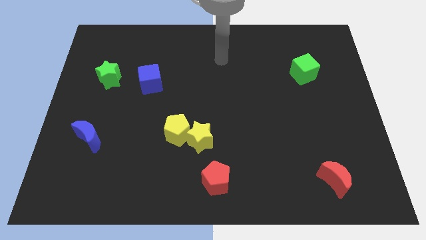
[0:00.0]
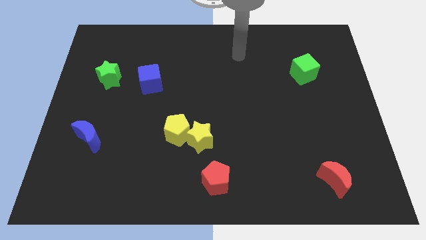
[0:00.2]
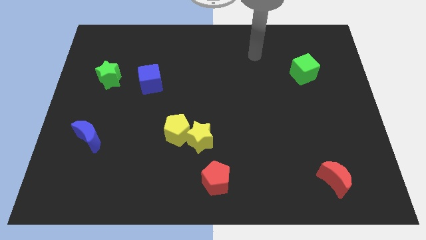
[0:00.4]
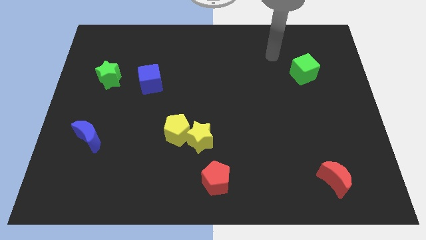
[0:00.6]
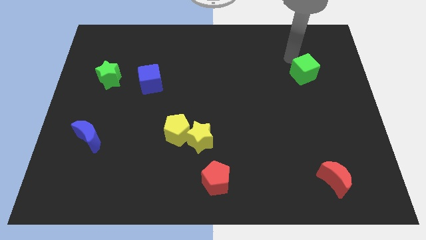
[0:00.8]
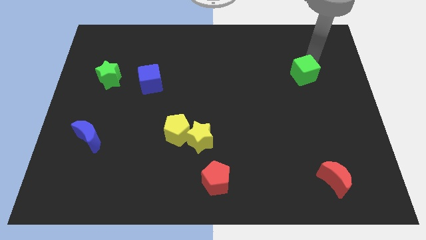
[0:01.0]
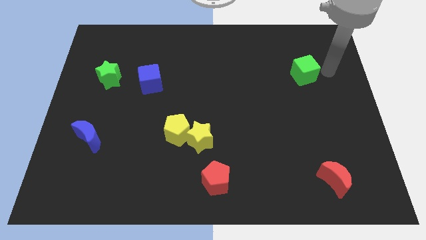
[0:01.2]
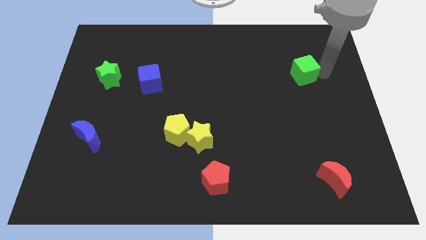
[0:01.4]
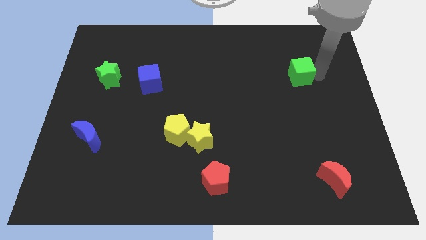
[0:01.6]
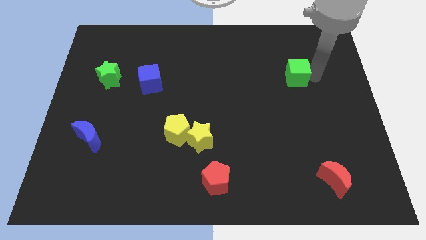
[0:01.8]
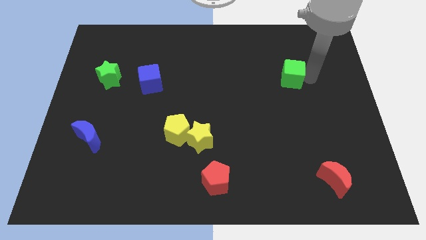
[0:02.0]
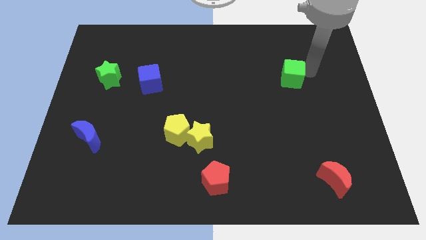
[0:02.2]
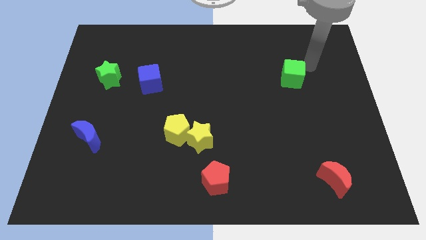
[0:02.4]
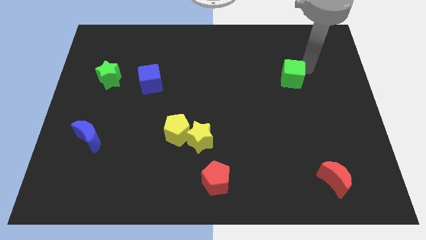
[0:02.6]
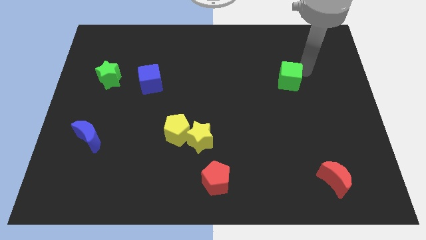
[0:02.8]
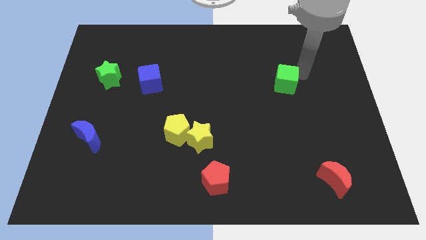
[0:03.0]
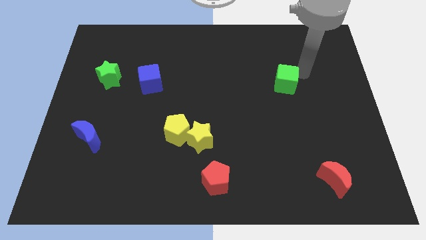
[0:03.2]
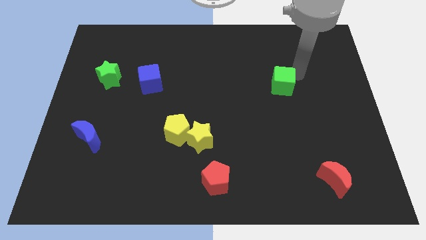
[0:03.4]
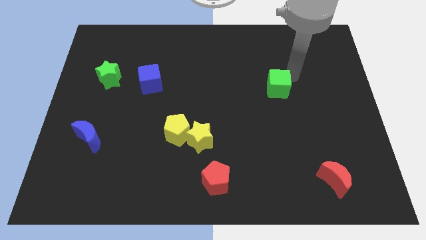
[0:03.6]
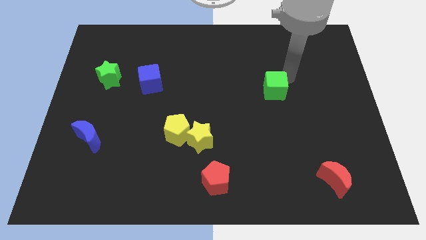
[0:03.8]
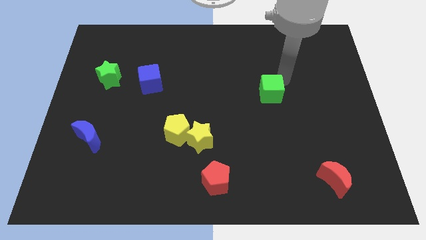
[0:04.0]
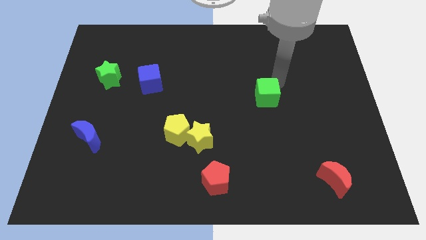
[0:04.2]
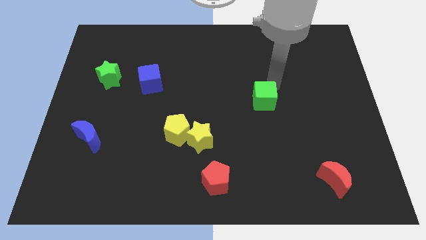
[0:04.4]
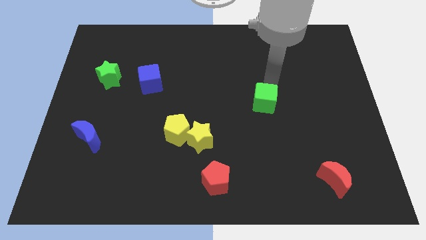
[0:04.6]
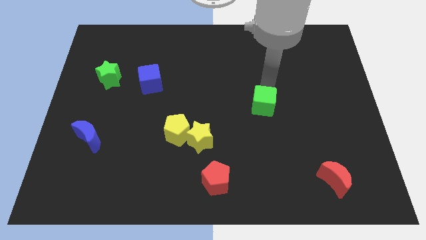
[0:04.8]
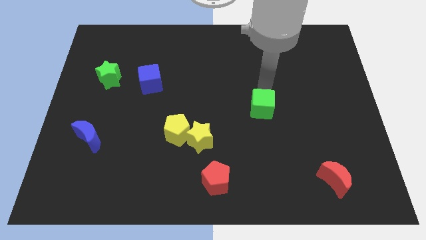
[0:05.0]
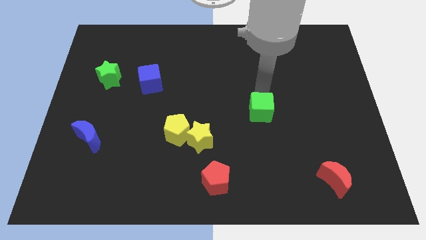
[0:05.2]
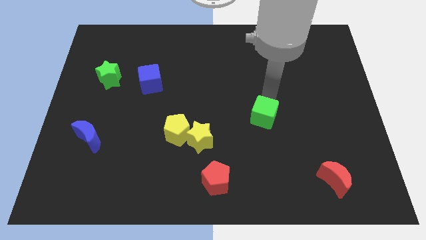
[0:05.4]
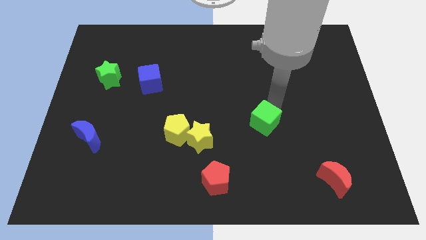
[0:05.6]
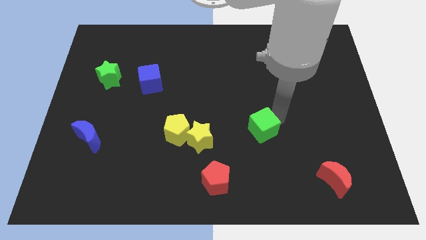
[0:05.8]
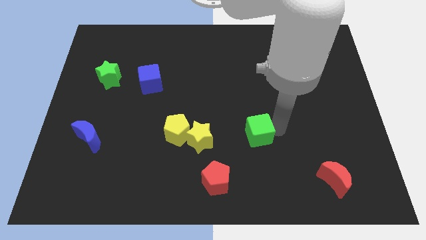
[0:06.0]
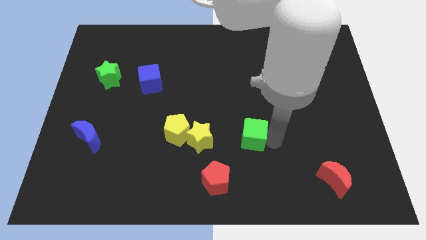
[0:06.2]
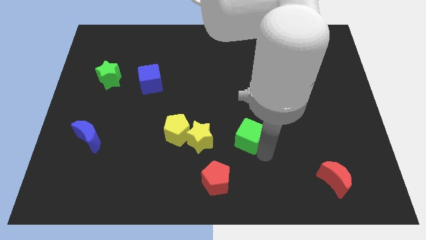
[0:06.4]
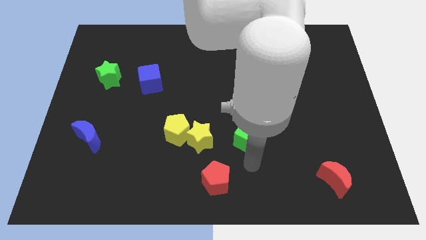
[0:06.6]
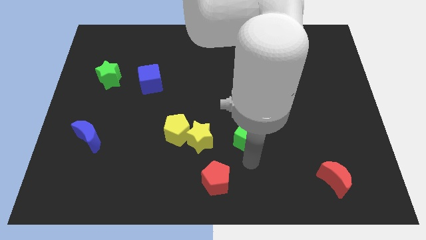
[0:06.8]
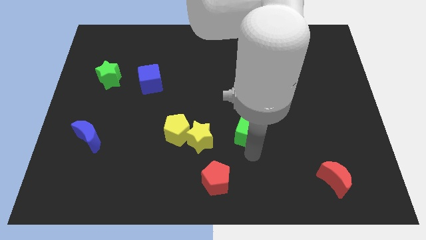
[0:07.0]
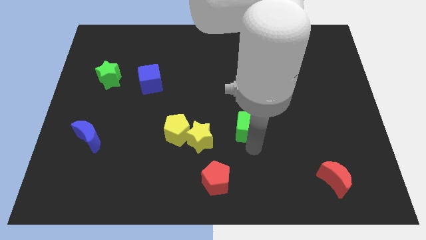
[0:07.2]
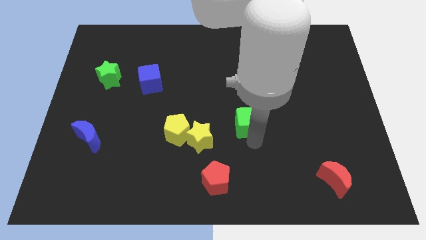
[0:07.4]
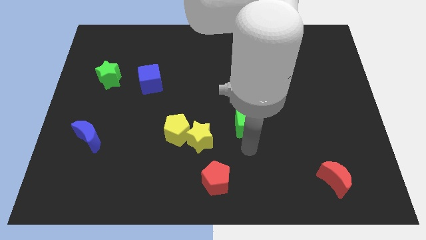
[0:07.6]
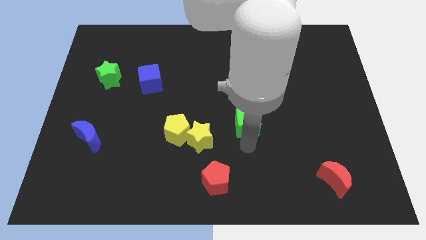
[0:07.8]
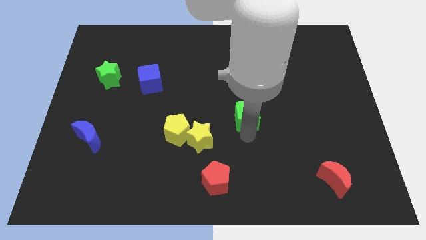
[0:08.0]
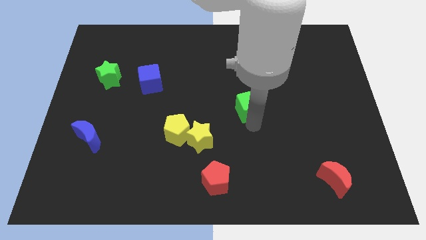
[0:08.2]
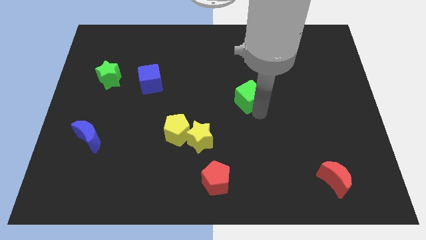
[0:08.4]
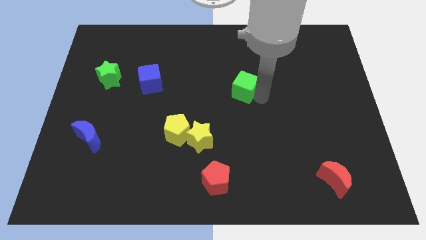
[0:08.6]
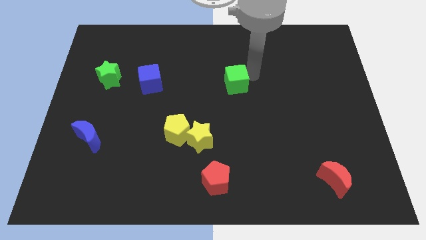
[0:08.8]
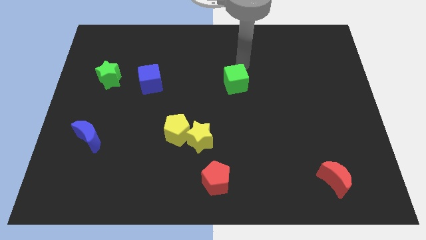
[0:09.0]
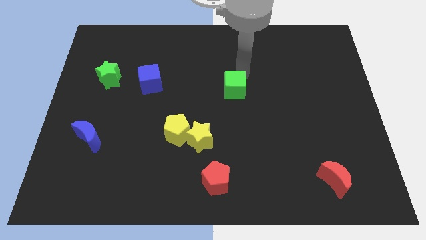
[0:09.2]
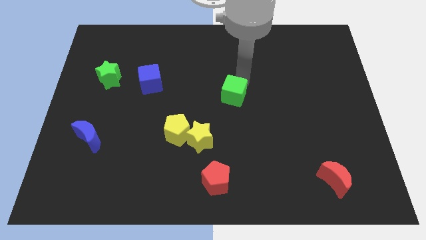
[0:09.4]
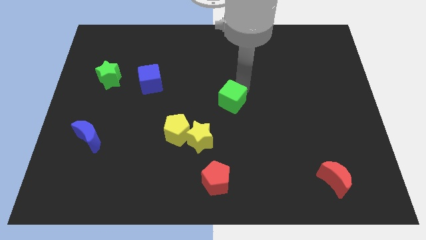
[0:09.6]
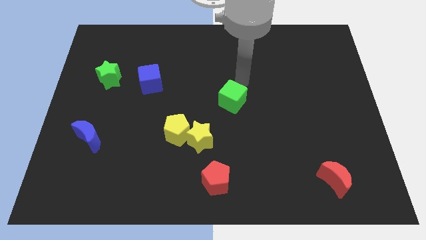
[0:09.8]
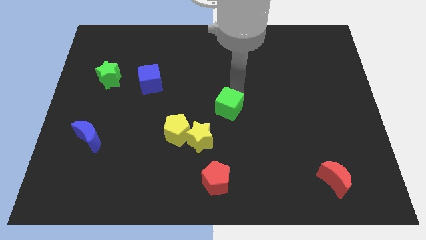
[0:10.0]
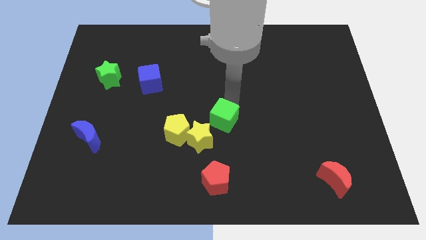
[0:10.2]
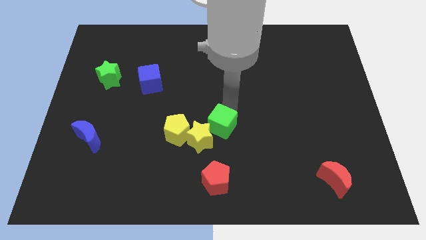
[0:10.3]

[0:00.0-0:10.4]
put the green cube towards the yellow star

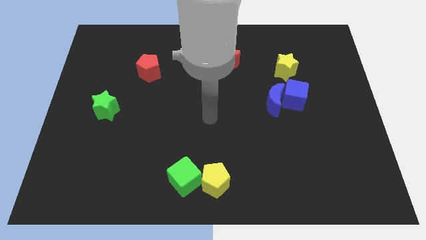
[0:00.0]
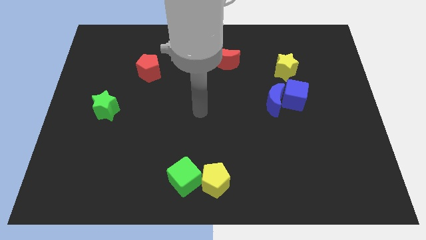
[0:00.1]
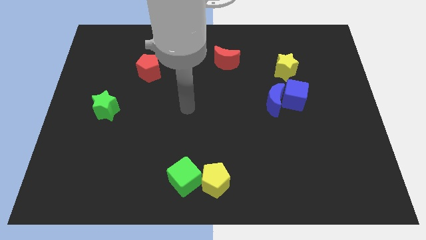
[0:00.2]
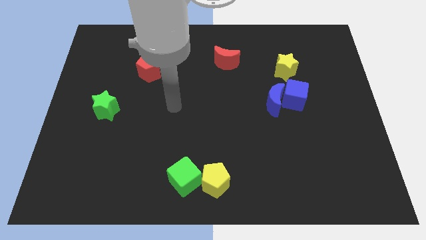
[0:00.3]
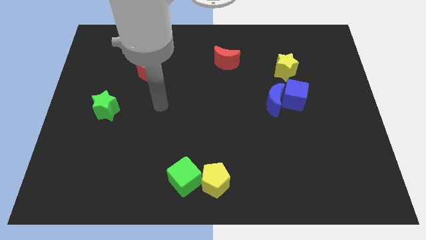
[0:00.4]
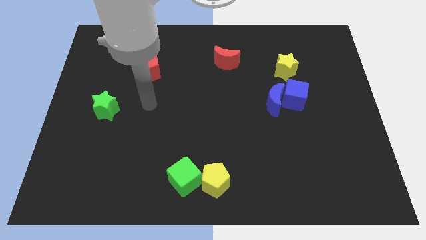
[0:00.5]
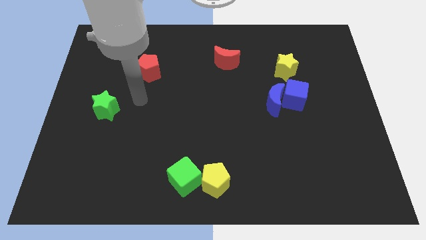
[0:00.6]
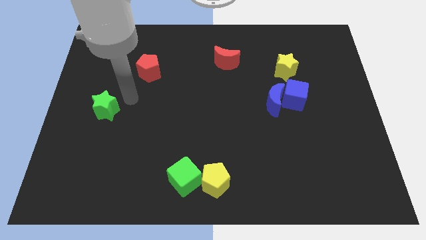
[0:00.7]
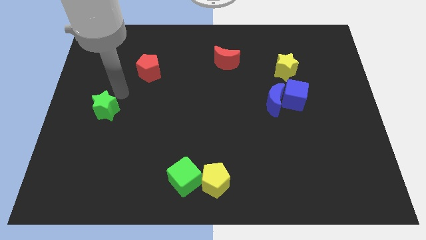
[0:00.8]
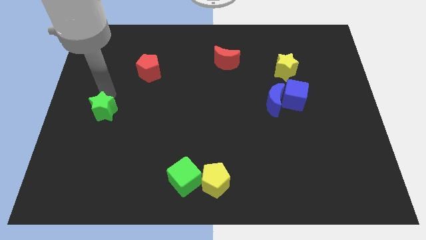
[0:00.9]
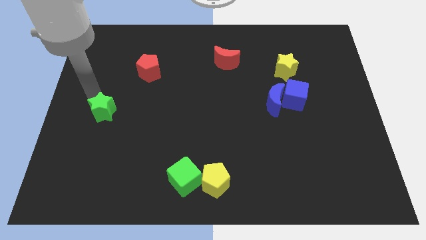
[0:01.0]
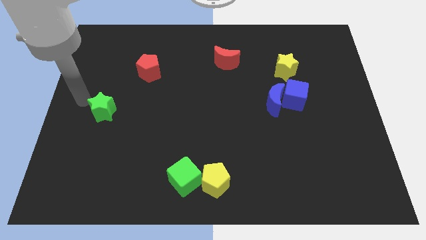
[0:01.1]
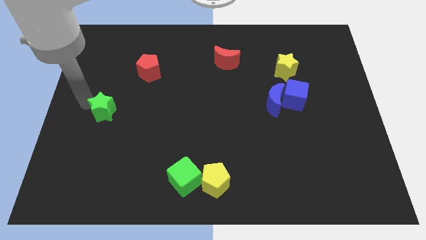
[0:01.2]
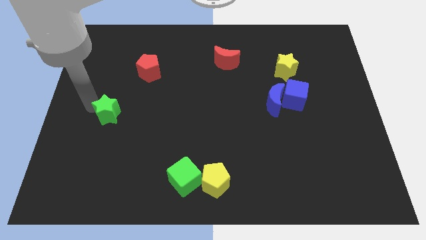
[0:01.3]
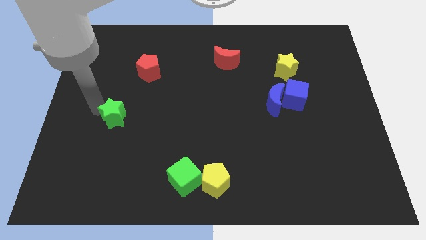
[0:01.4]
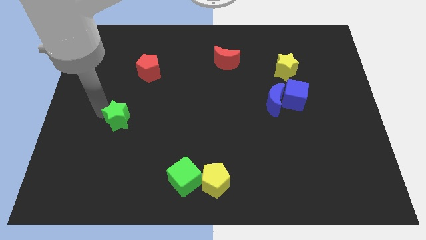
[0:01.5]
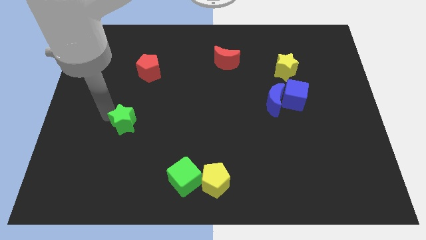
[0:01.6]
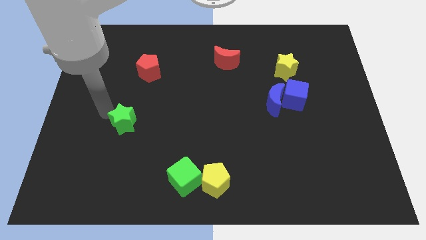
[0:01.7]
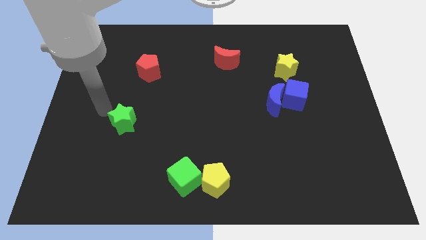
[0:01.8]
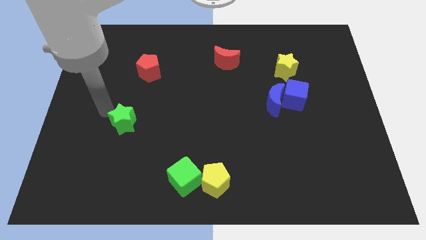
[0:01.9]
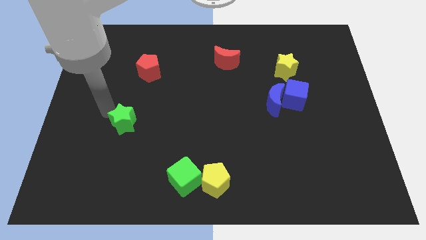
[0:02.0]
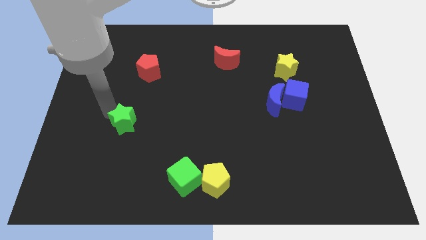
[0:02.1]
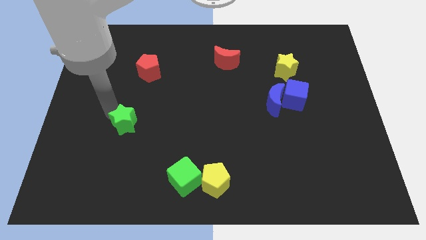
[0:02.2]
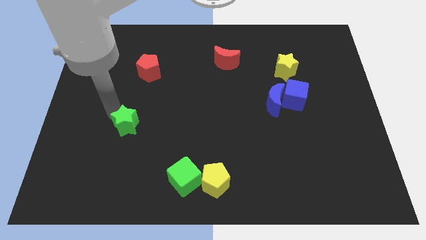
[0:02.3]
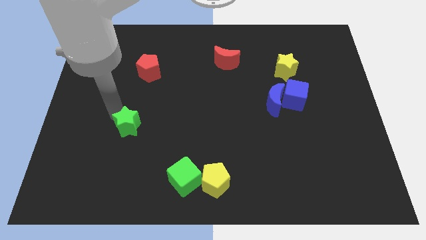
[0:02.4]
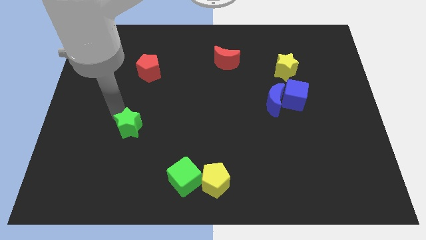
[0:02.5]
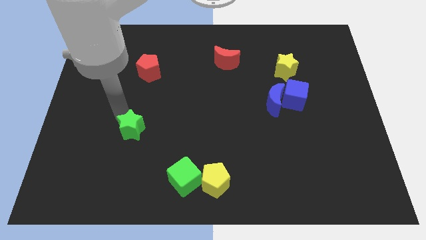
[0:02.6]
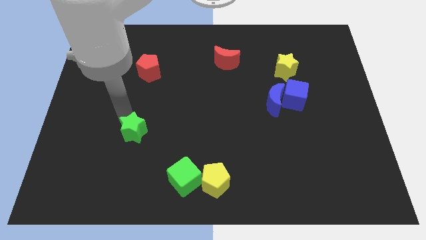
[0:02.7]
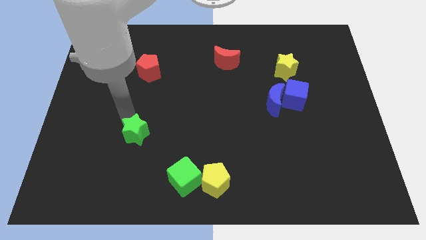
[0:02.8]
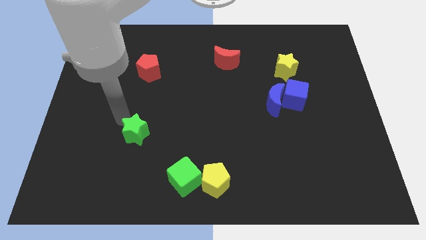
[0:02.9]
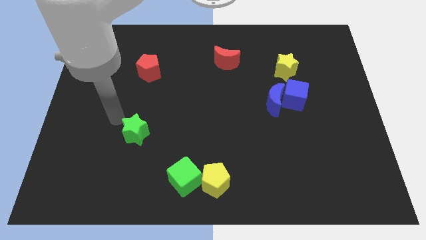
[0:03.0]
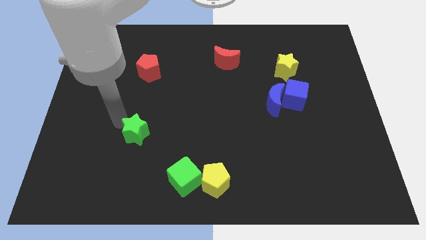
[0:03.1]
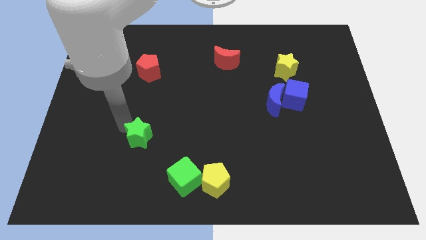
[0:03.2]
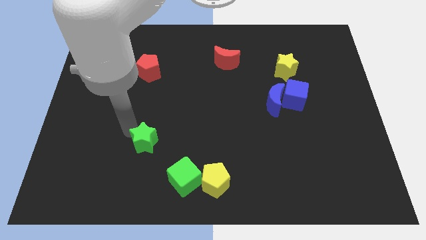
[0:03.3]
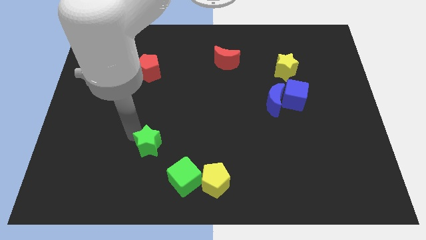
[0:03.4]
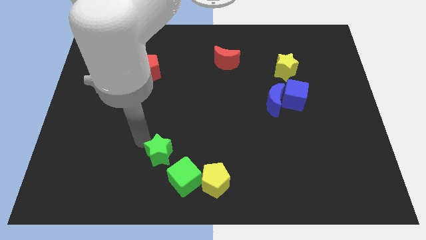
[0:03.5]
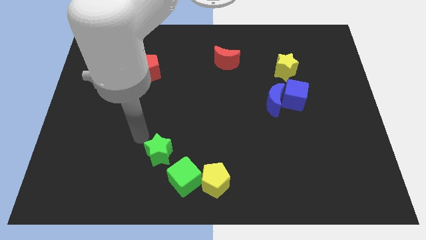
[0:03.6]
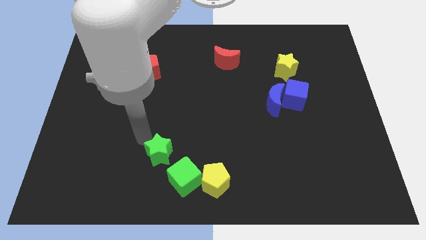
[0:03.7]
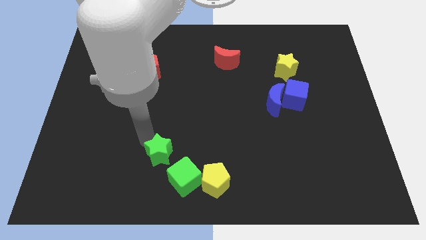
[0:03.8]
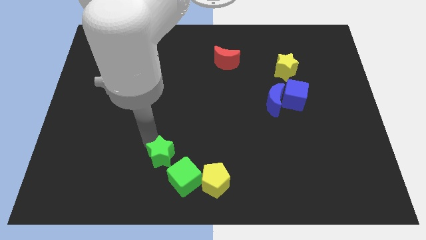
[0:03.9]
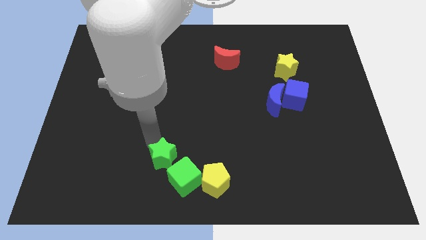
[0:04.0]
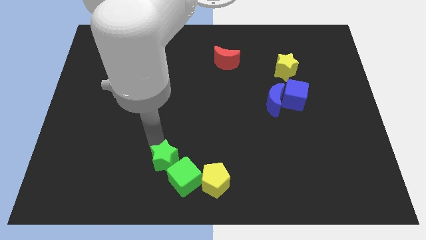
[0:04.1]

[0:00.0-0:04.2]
move the green star towards the green cube
